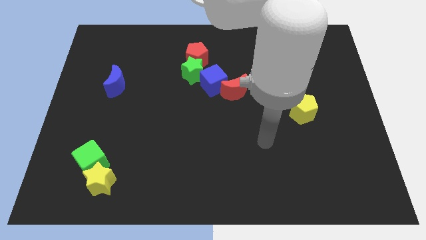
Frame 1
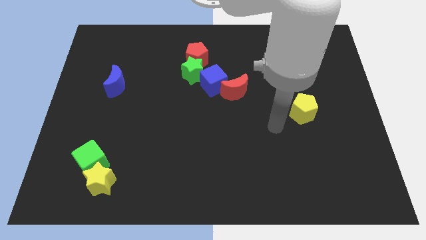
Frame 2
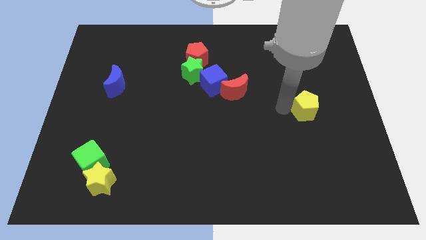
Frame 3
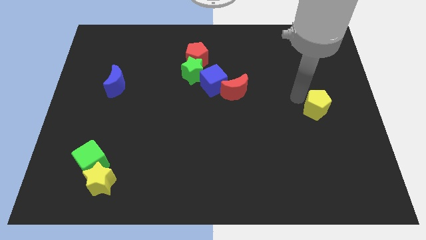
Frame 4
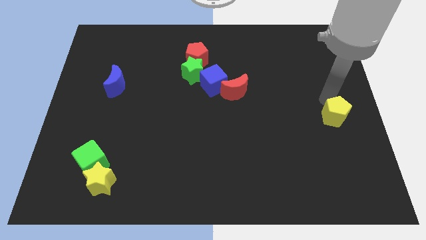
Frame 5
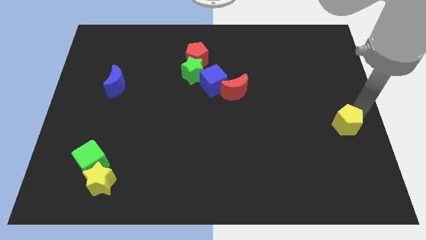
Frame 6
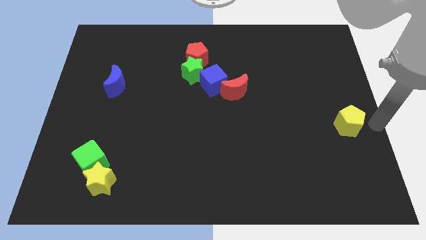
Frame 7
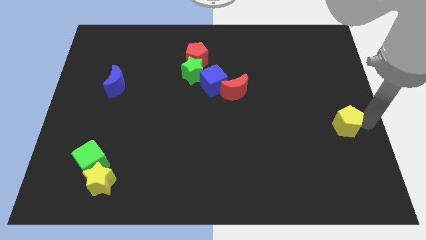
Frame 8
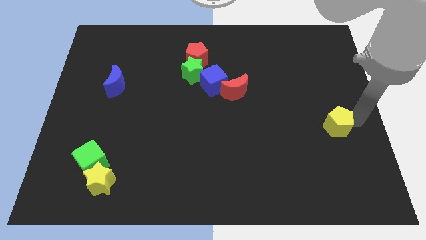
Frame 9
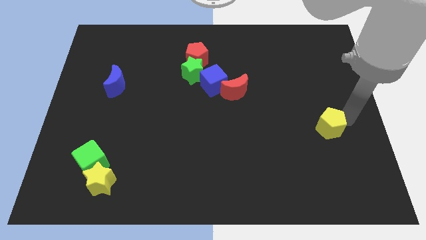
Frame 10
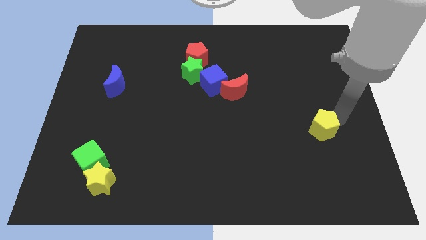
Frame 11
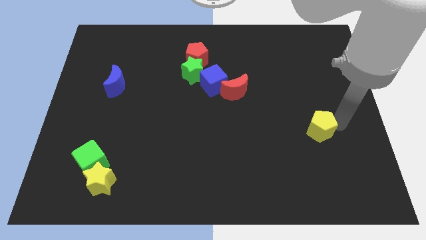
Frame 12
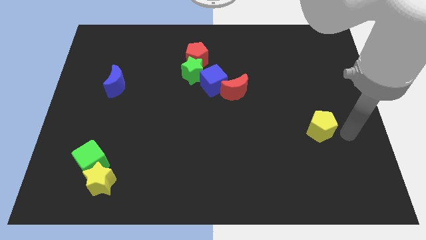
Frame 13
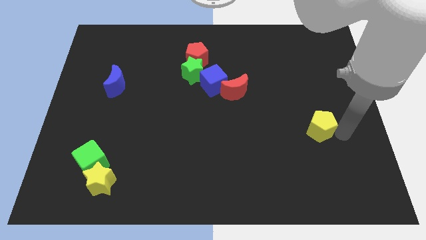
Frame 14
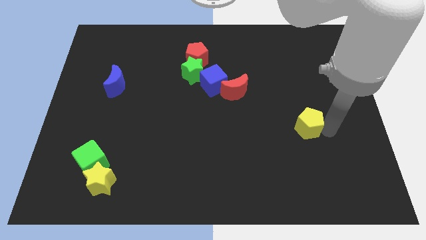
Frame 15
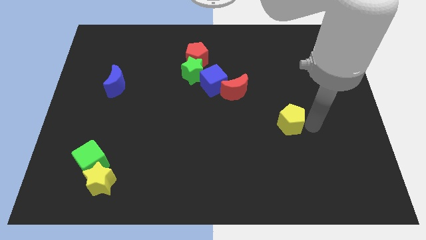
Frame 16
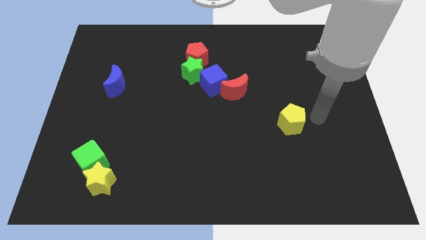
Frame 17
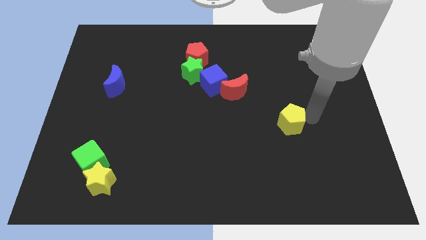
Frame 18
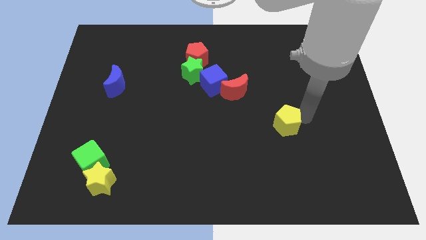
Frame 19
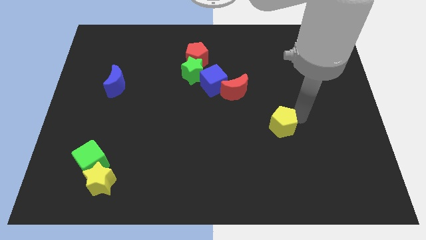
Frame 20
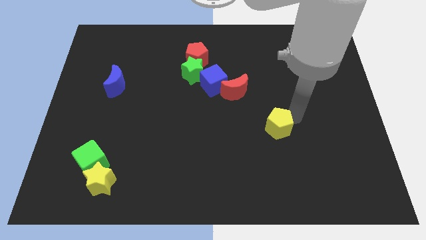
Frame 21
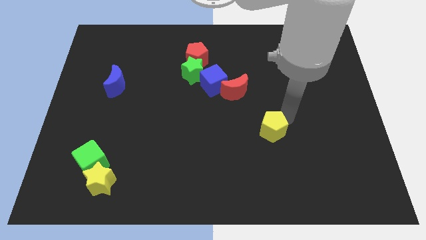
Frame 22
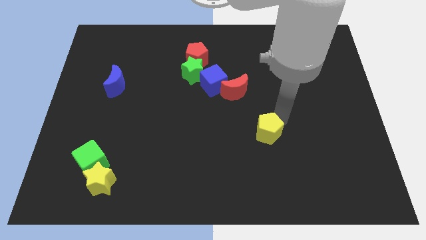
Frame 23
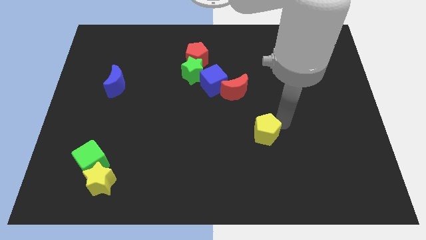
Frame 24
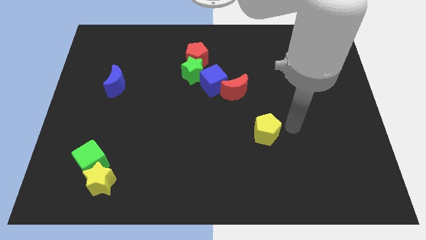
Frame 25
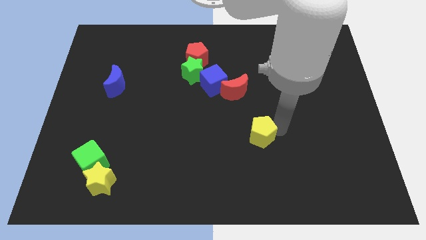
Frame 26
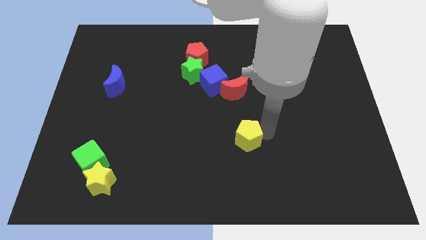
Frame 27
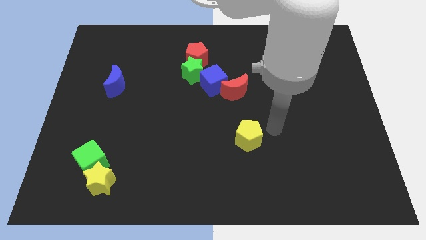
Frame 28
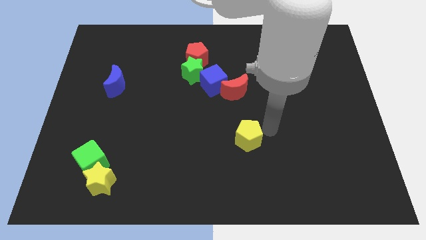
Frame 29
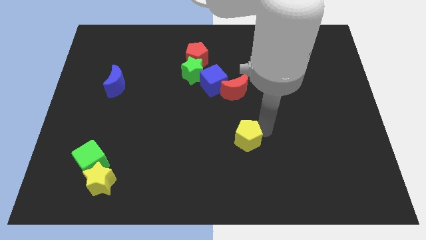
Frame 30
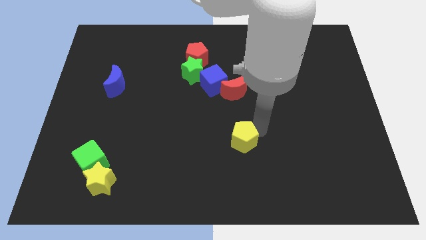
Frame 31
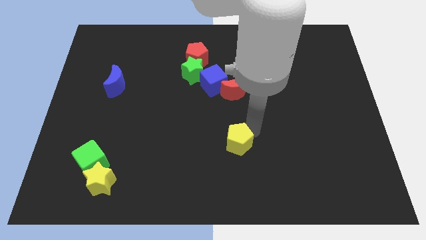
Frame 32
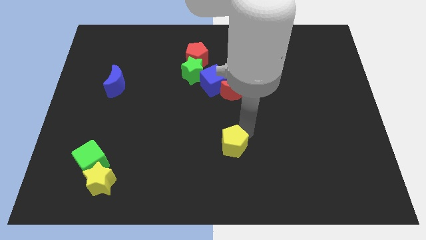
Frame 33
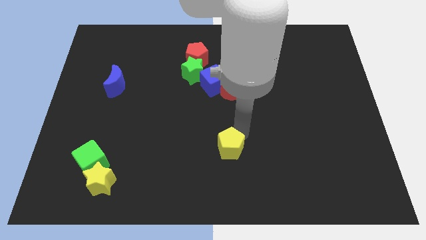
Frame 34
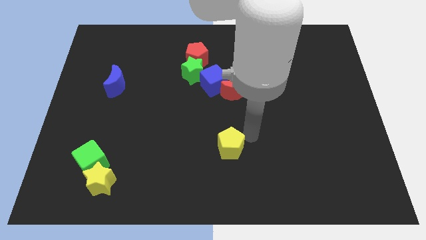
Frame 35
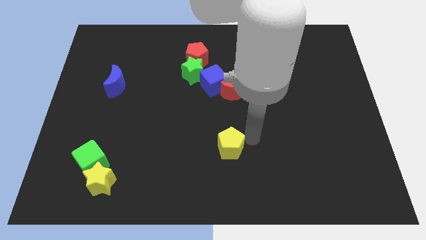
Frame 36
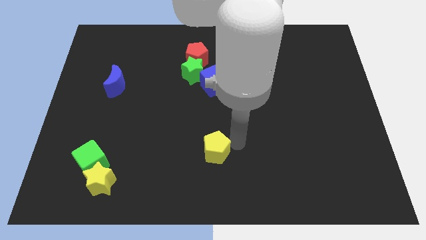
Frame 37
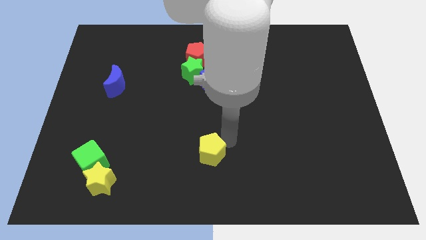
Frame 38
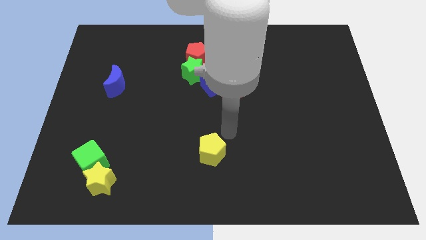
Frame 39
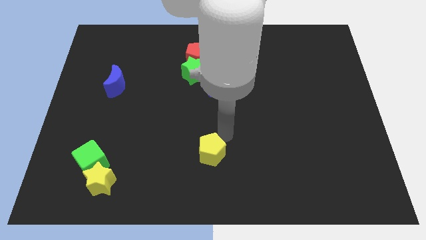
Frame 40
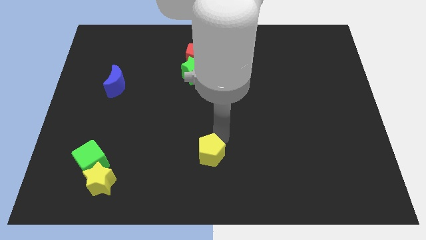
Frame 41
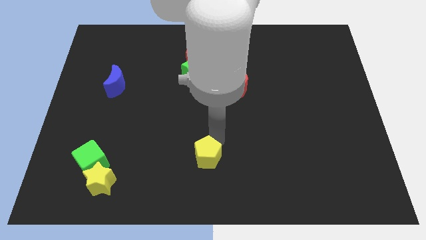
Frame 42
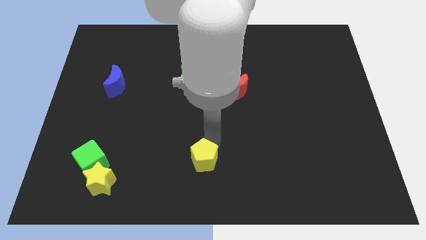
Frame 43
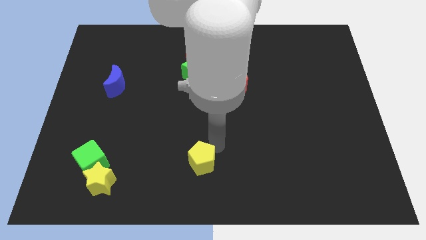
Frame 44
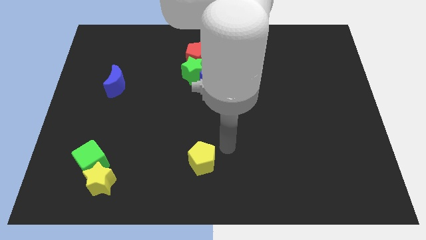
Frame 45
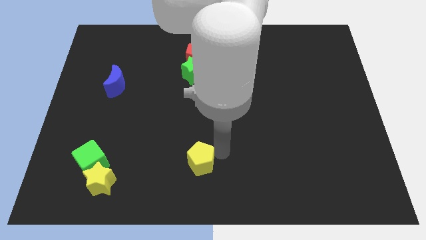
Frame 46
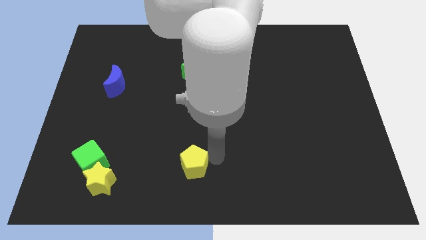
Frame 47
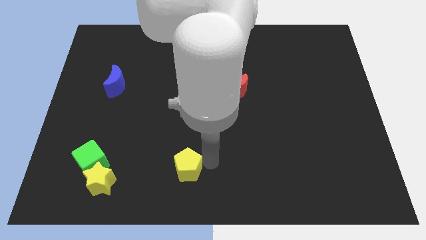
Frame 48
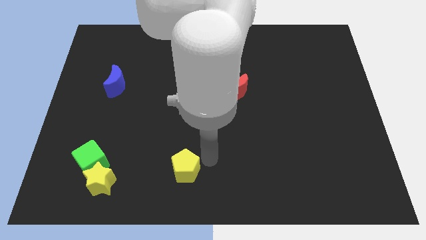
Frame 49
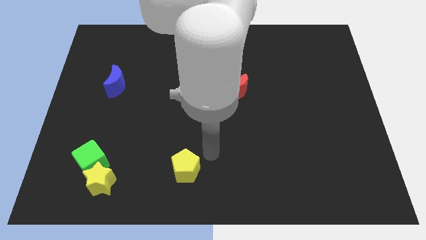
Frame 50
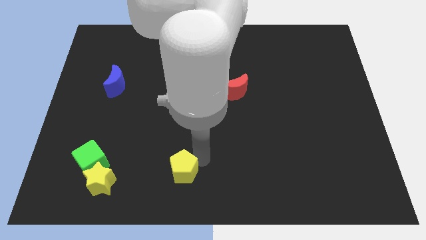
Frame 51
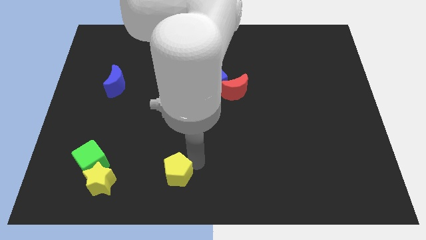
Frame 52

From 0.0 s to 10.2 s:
move the yellow pentagon to the right of the yellow star

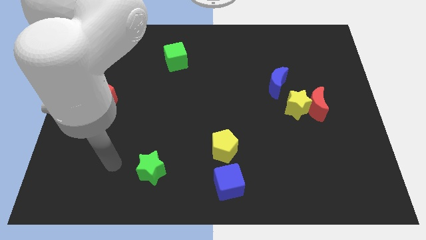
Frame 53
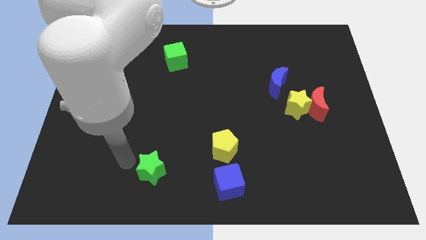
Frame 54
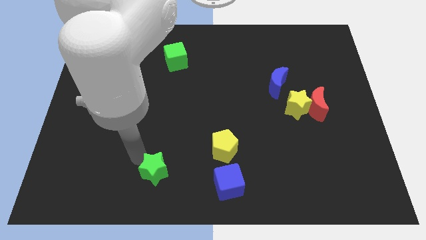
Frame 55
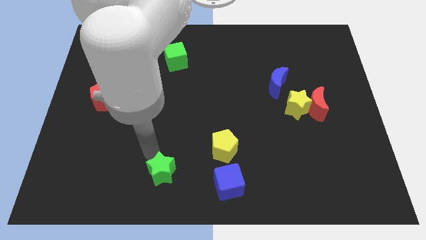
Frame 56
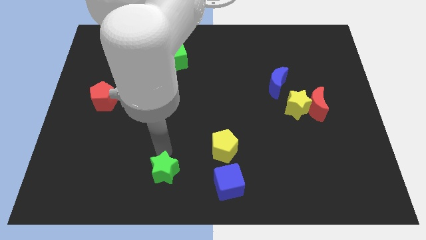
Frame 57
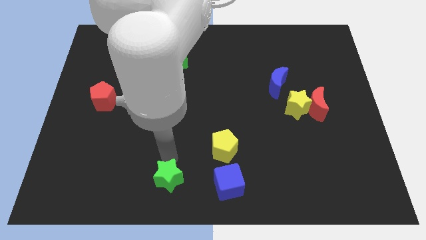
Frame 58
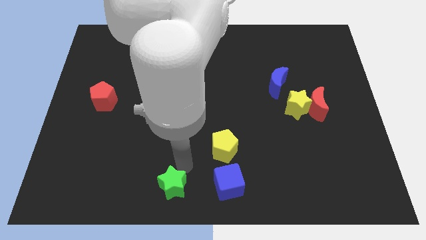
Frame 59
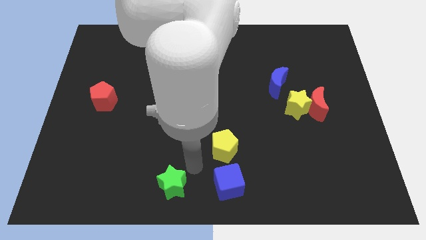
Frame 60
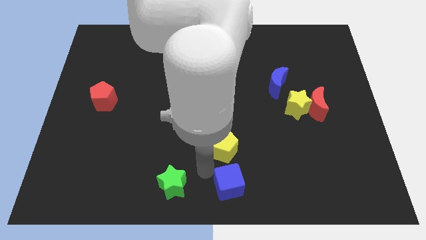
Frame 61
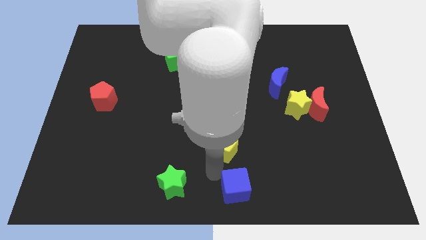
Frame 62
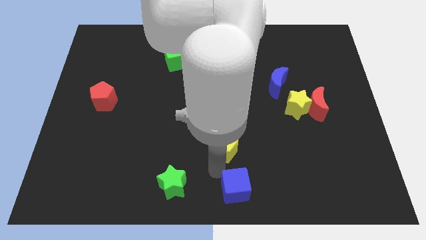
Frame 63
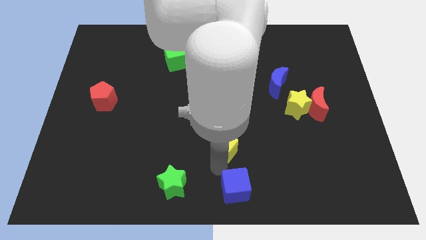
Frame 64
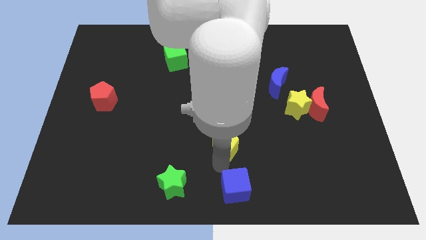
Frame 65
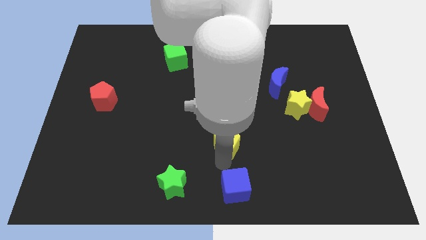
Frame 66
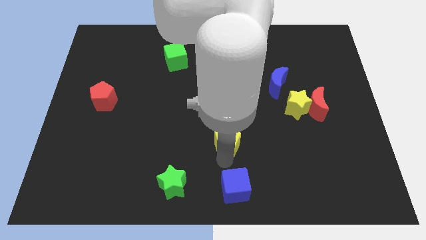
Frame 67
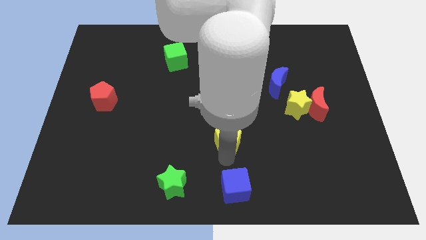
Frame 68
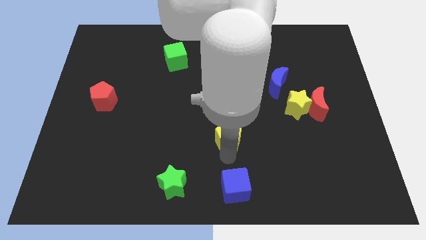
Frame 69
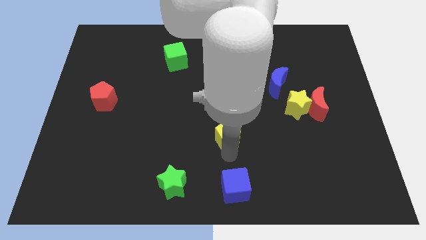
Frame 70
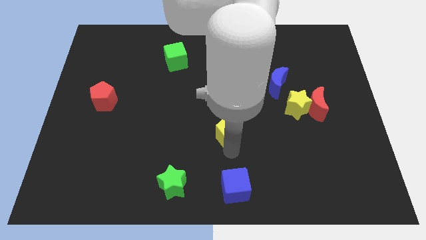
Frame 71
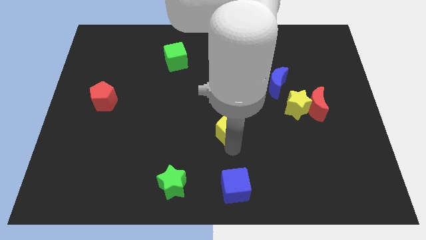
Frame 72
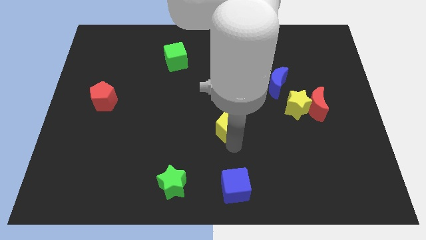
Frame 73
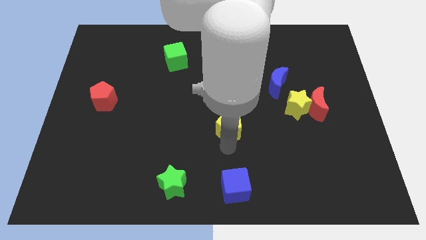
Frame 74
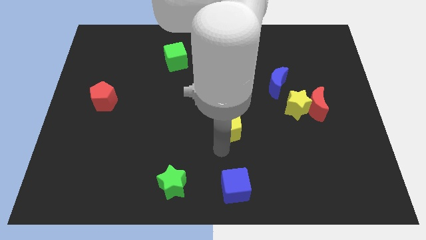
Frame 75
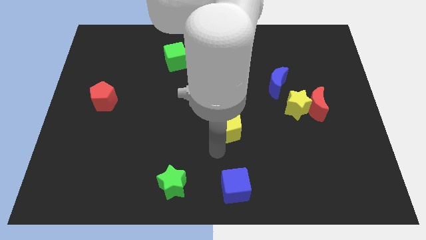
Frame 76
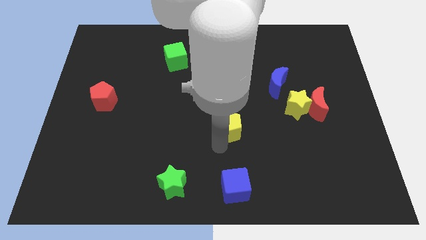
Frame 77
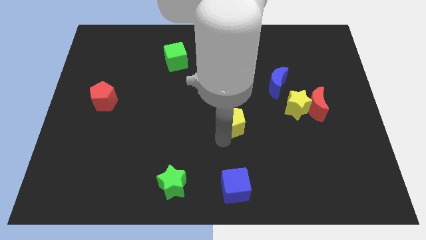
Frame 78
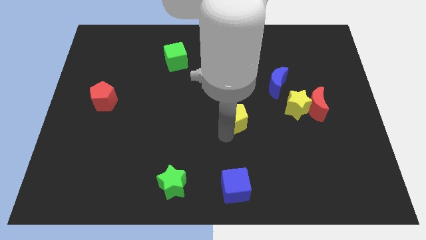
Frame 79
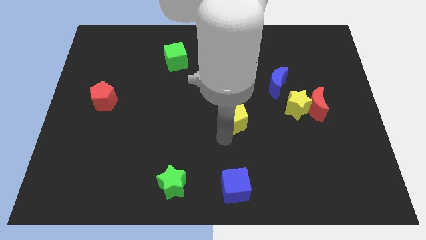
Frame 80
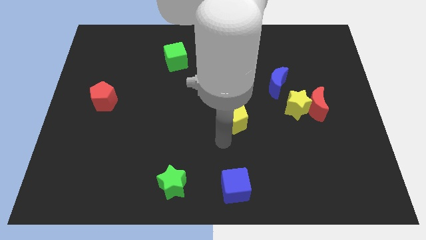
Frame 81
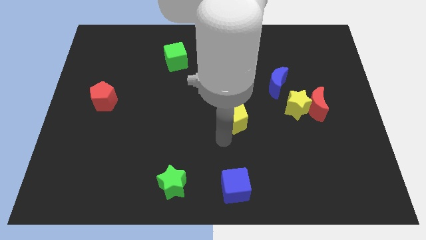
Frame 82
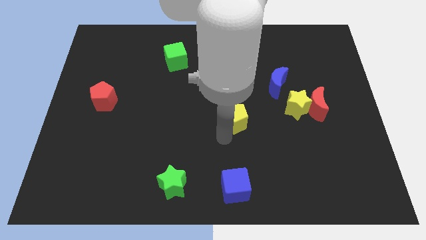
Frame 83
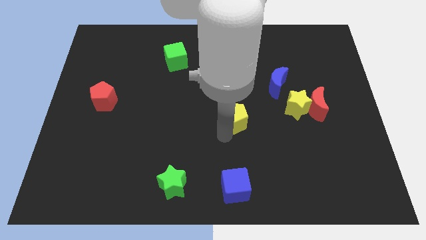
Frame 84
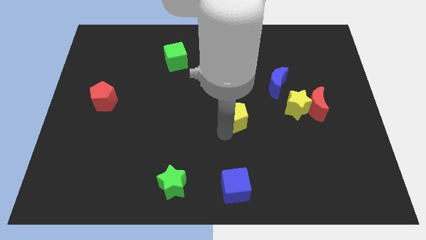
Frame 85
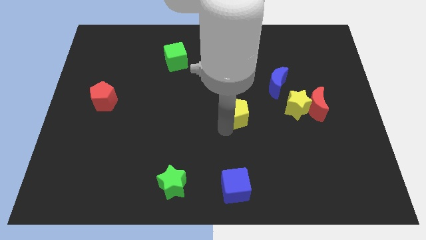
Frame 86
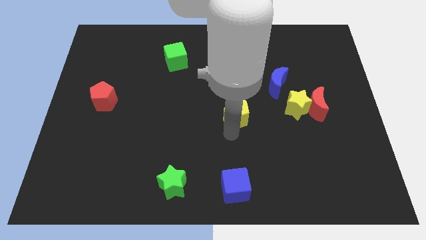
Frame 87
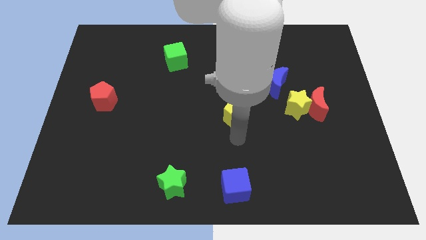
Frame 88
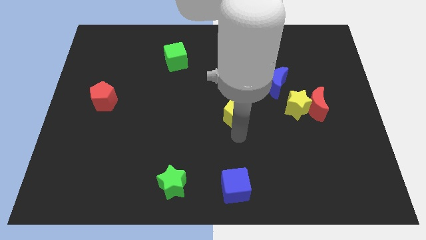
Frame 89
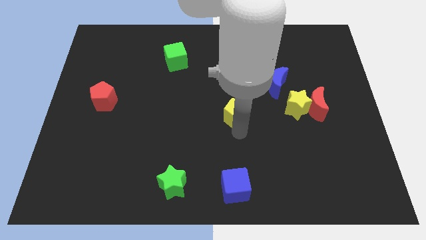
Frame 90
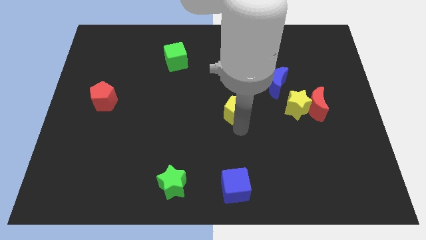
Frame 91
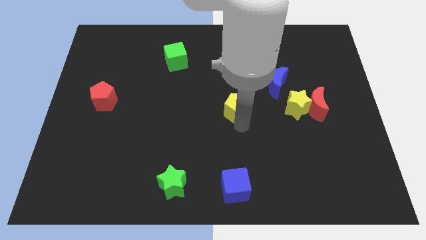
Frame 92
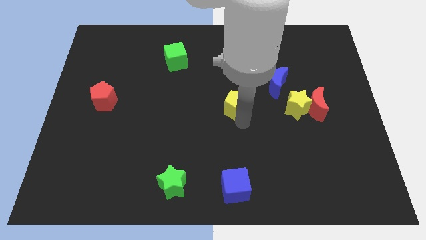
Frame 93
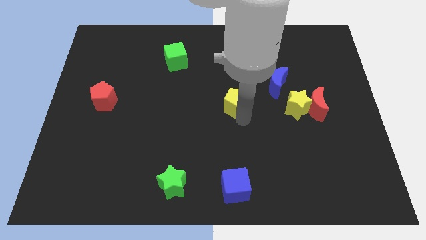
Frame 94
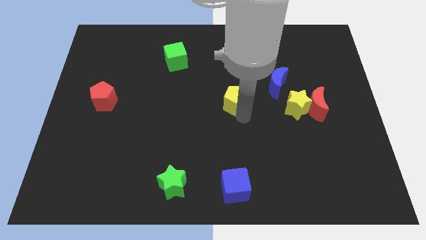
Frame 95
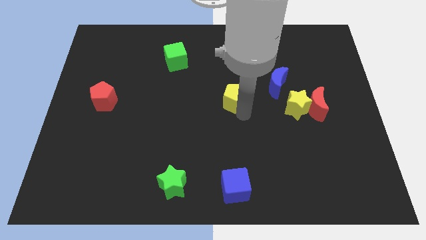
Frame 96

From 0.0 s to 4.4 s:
slide the yellow pentagon left of the blue moon
